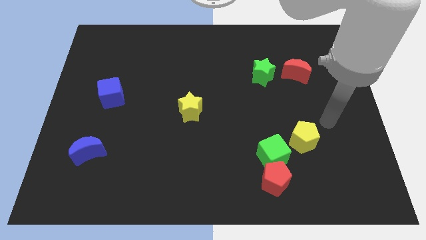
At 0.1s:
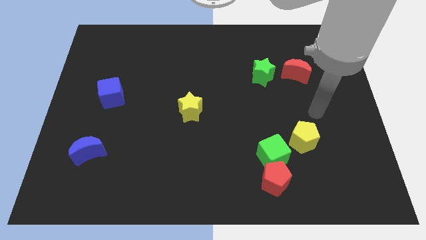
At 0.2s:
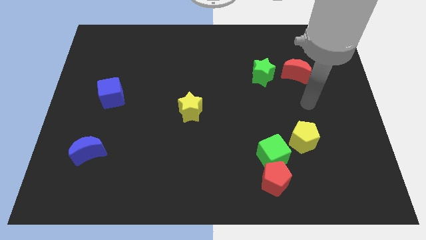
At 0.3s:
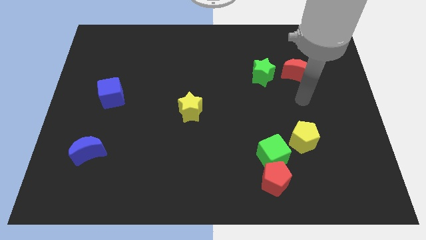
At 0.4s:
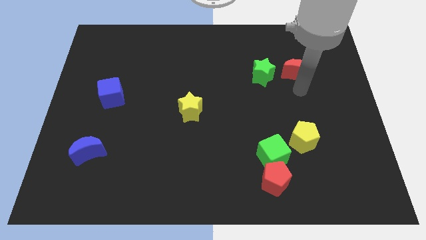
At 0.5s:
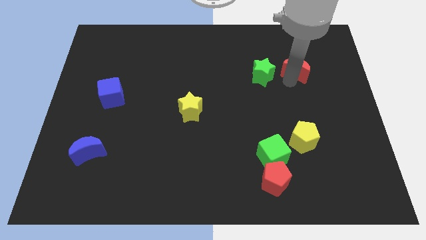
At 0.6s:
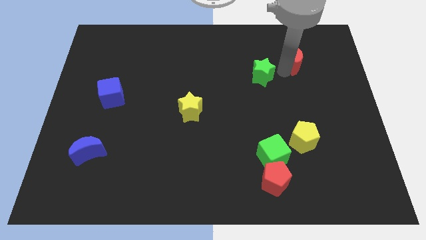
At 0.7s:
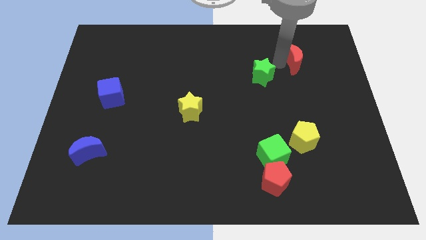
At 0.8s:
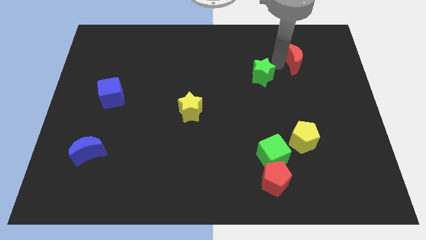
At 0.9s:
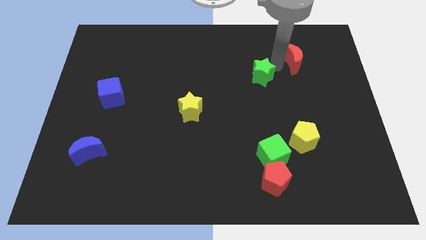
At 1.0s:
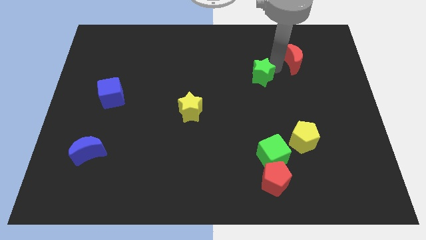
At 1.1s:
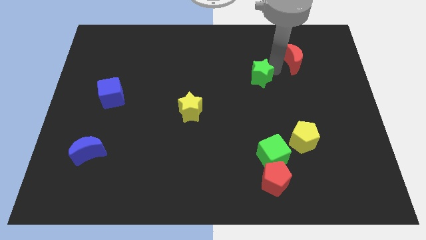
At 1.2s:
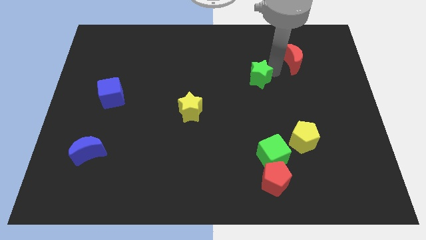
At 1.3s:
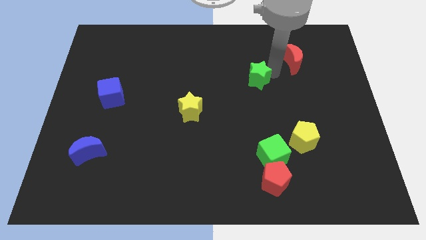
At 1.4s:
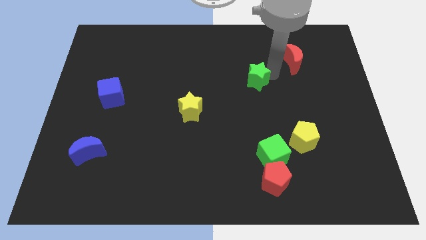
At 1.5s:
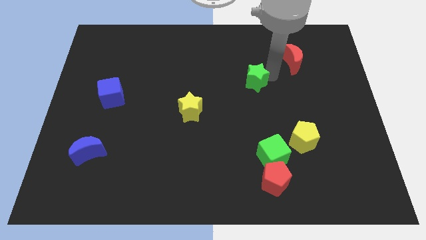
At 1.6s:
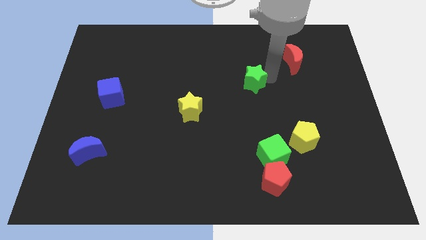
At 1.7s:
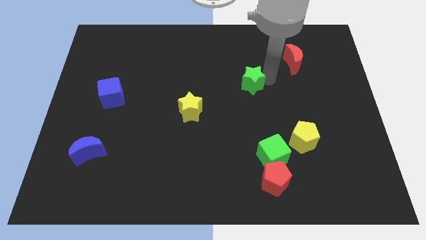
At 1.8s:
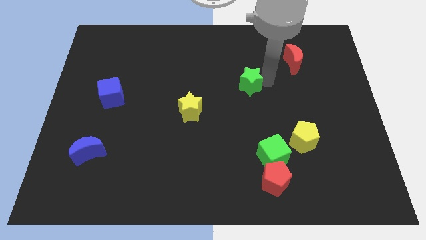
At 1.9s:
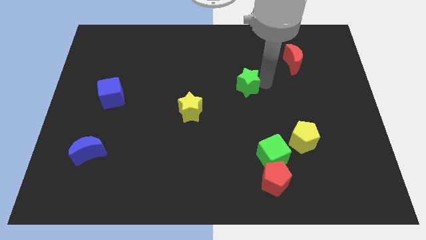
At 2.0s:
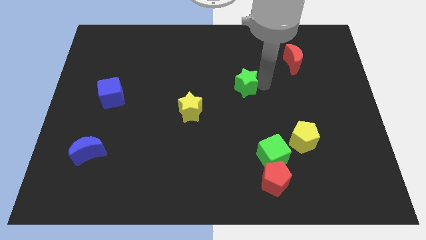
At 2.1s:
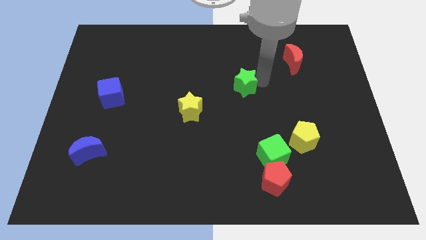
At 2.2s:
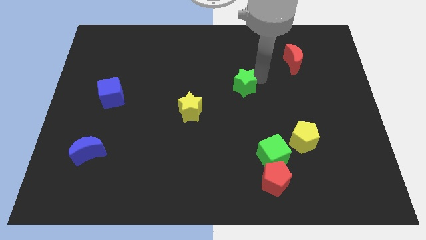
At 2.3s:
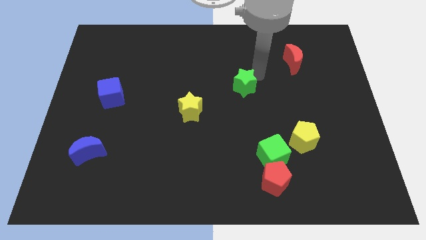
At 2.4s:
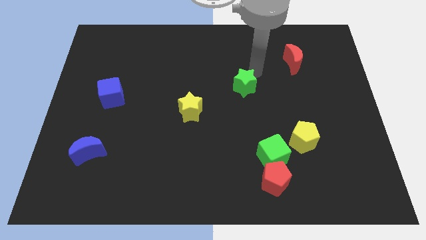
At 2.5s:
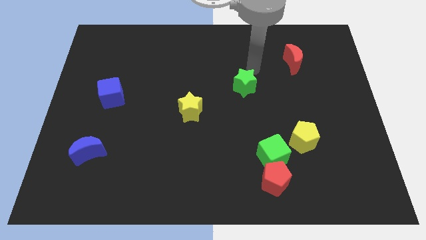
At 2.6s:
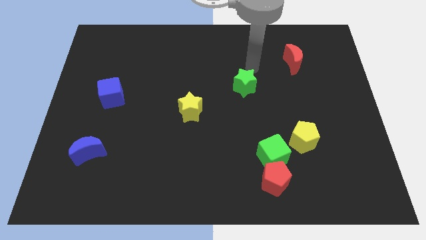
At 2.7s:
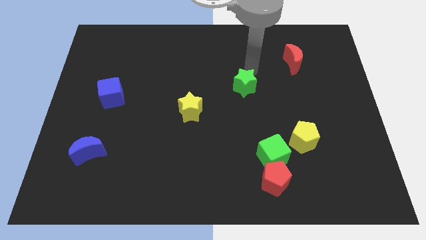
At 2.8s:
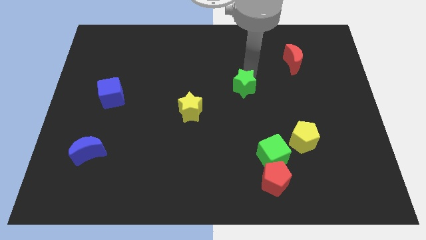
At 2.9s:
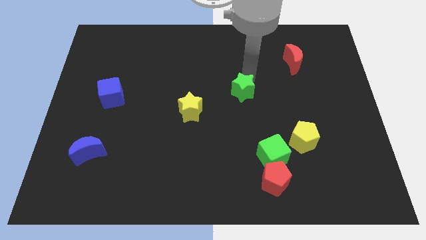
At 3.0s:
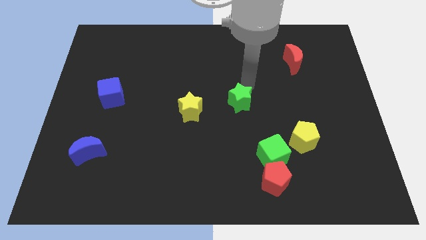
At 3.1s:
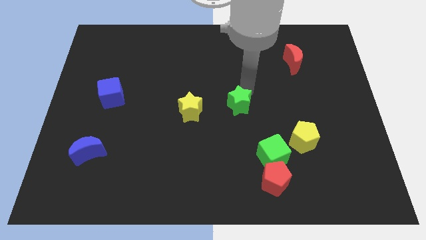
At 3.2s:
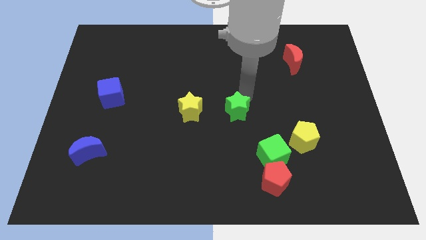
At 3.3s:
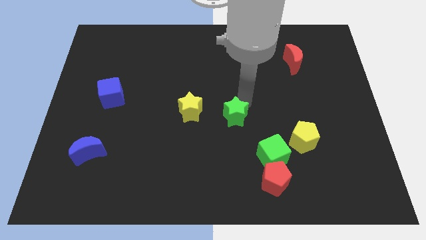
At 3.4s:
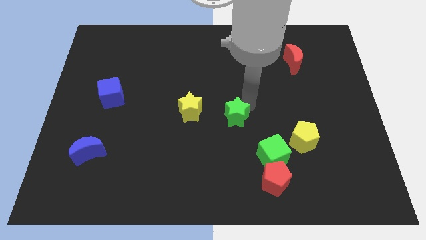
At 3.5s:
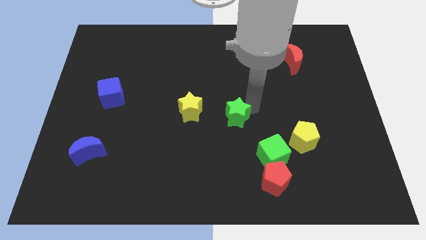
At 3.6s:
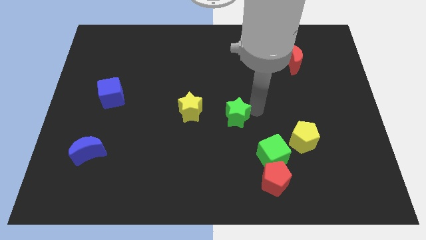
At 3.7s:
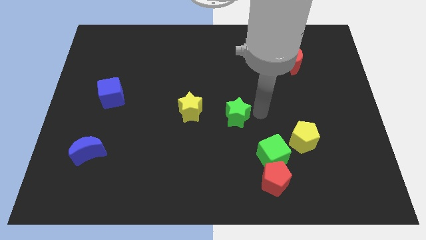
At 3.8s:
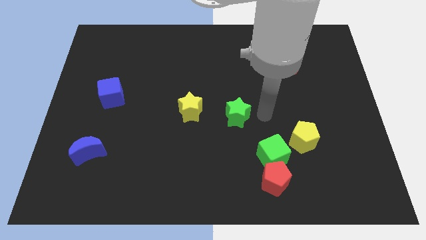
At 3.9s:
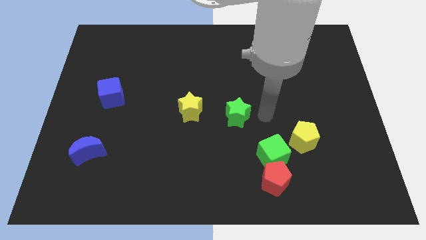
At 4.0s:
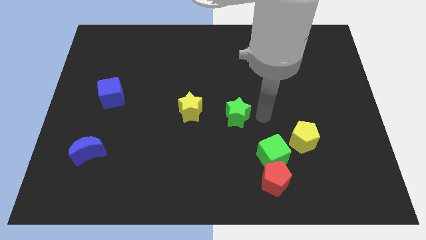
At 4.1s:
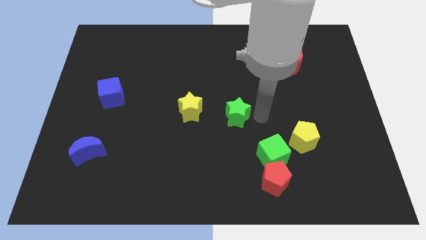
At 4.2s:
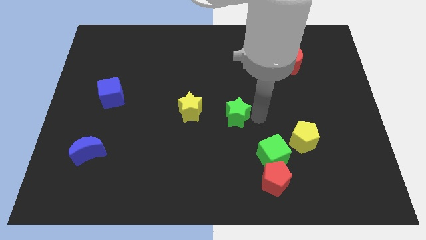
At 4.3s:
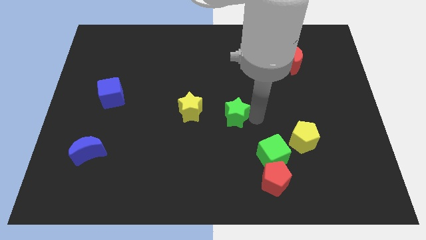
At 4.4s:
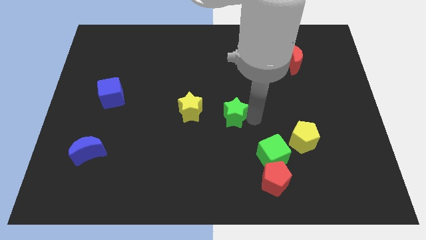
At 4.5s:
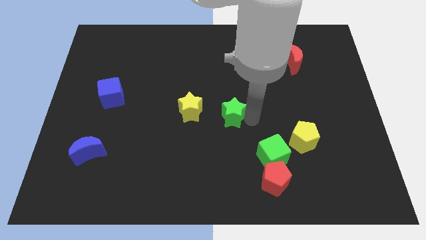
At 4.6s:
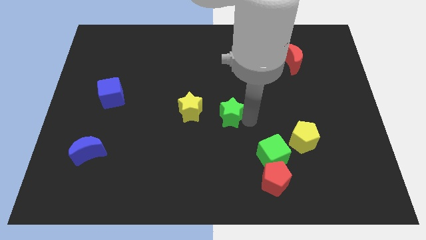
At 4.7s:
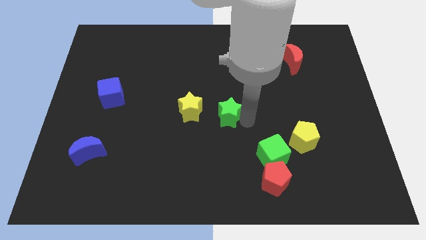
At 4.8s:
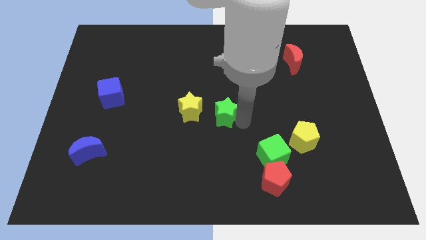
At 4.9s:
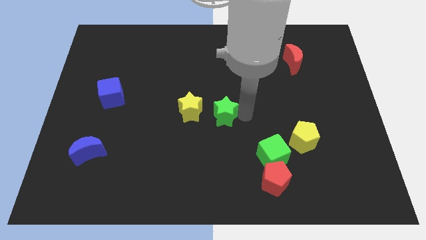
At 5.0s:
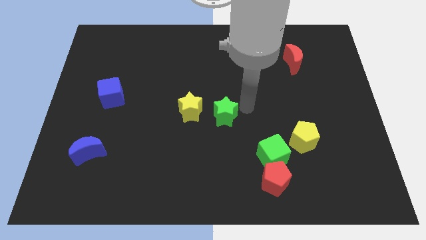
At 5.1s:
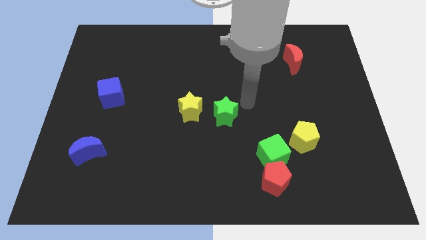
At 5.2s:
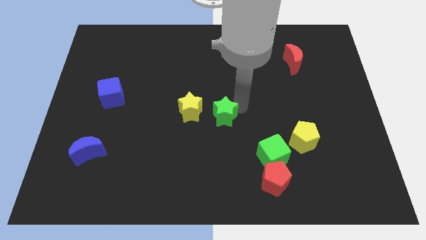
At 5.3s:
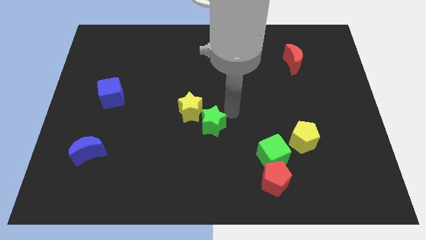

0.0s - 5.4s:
move the green star down and then left

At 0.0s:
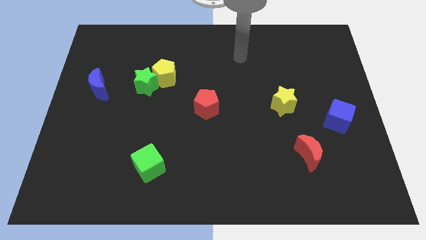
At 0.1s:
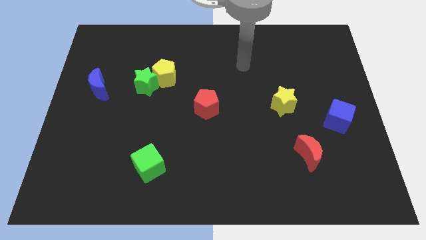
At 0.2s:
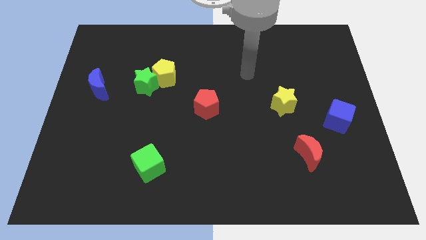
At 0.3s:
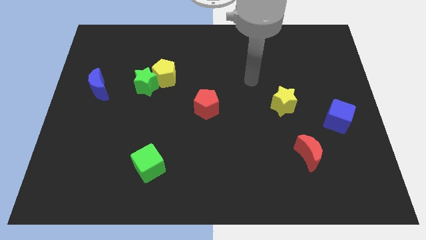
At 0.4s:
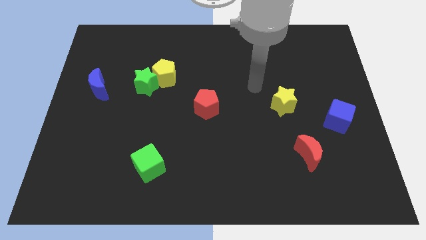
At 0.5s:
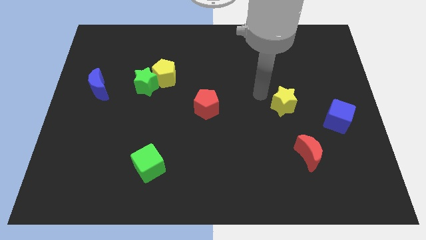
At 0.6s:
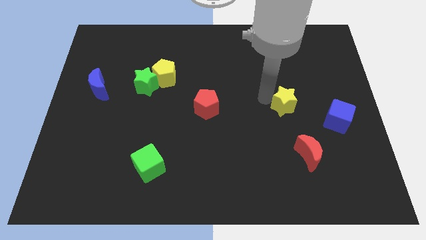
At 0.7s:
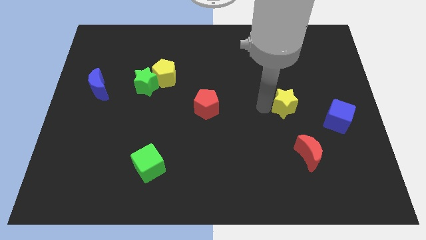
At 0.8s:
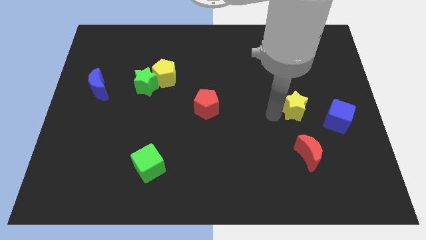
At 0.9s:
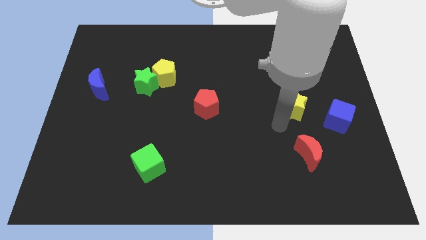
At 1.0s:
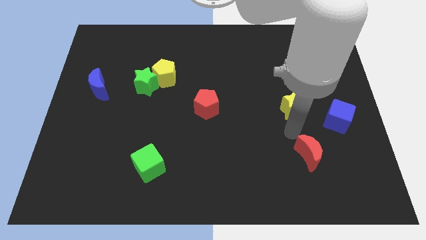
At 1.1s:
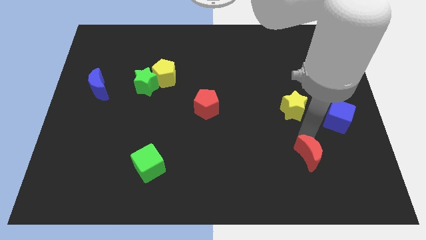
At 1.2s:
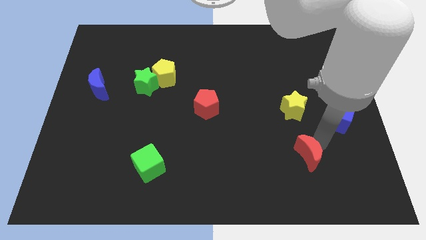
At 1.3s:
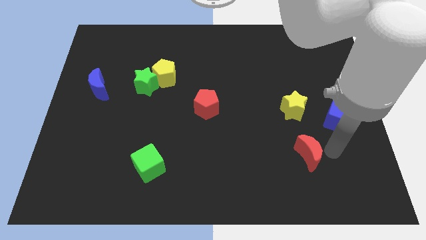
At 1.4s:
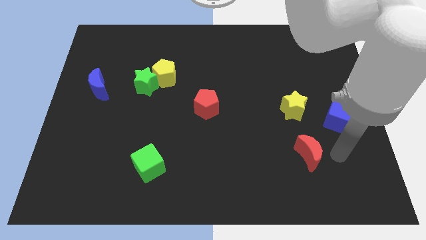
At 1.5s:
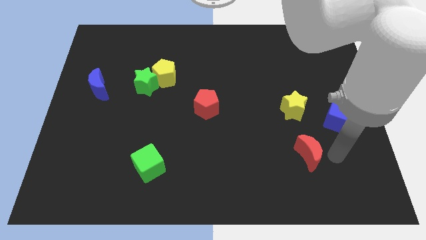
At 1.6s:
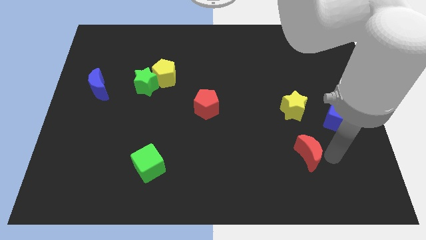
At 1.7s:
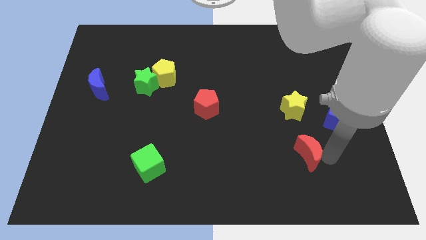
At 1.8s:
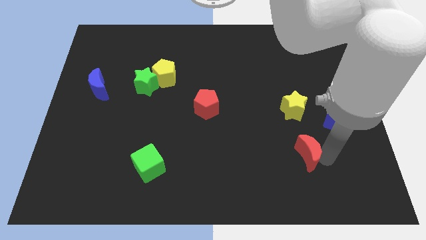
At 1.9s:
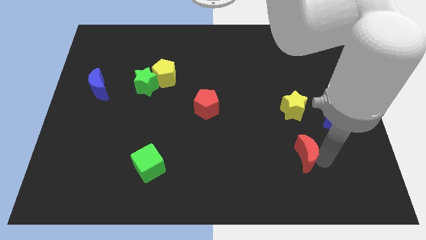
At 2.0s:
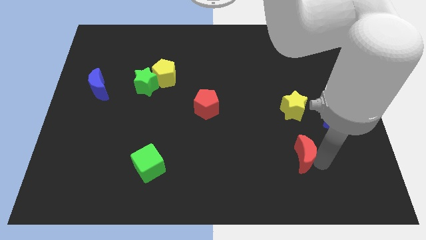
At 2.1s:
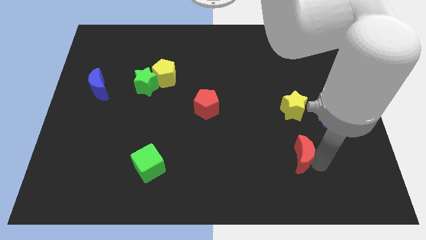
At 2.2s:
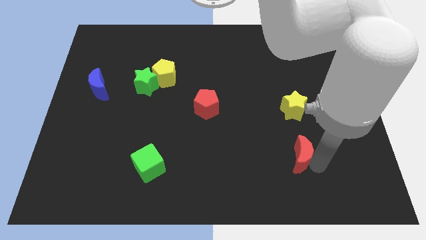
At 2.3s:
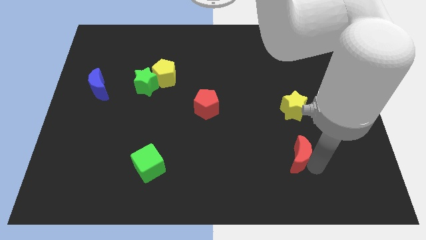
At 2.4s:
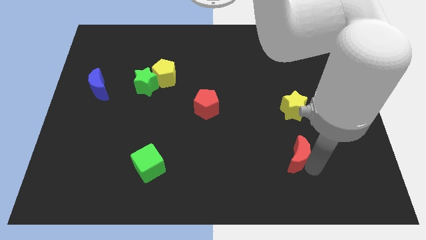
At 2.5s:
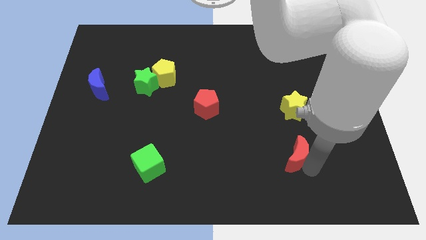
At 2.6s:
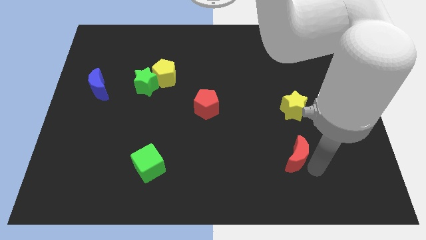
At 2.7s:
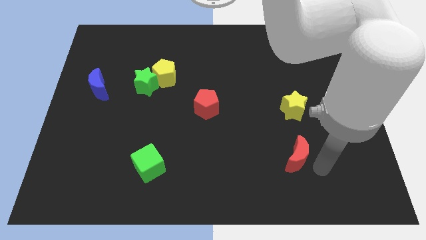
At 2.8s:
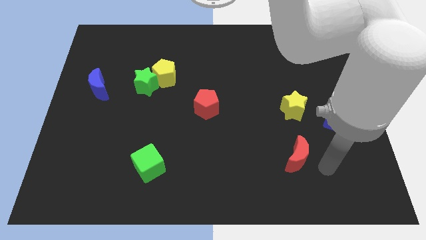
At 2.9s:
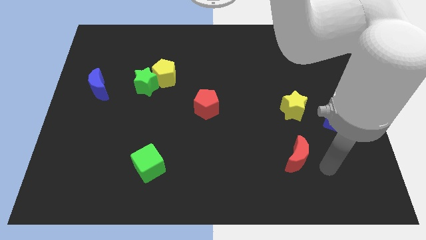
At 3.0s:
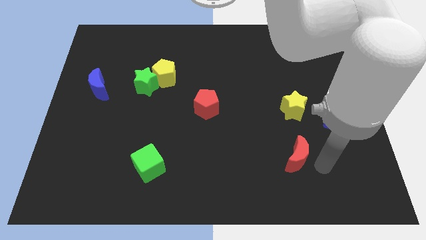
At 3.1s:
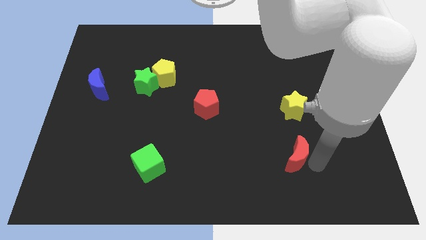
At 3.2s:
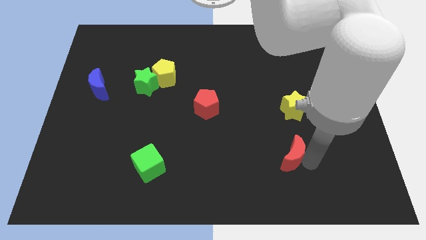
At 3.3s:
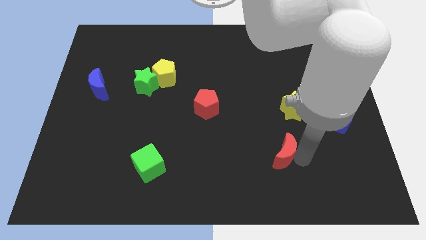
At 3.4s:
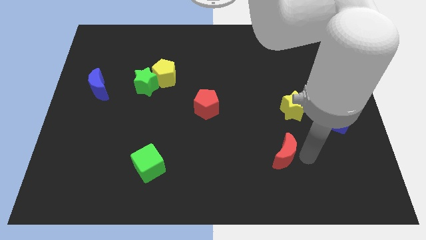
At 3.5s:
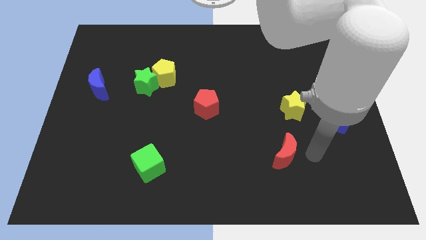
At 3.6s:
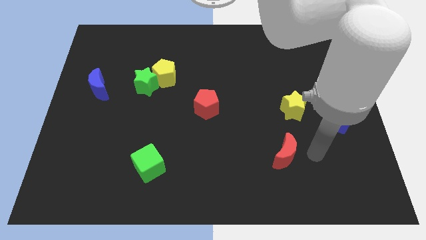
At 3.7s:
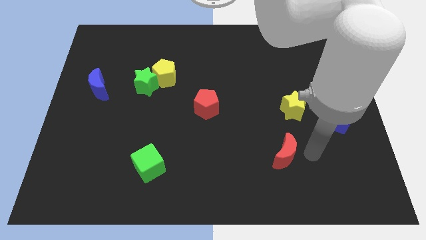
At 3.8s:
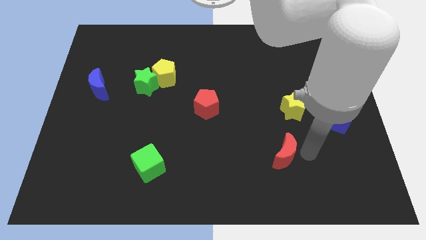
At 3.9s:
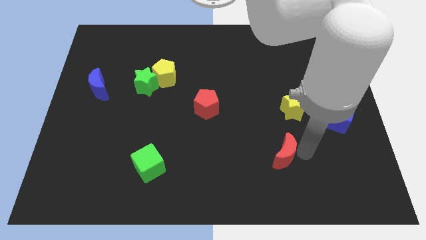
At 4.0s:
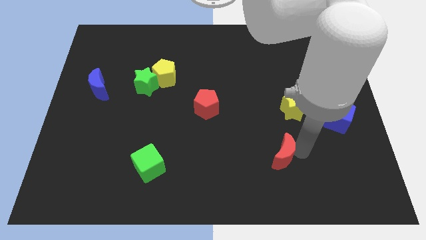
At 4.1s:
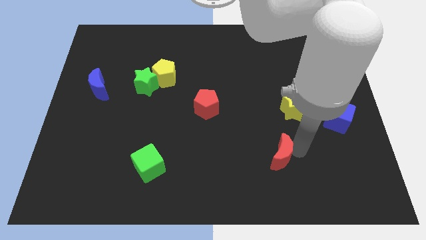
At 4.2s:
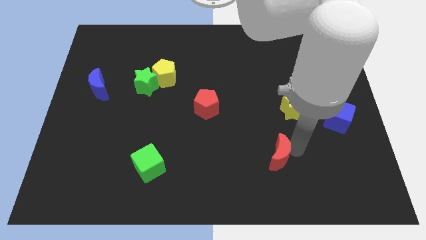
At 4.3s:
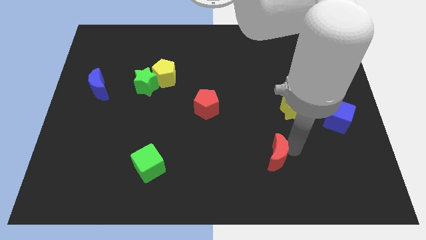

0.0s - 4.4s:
slightly push the red moon left
